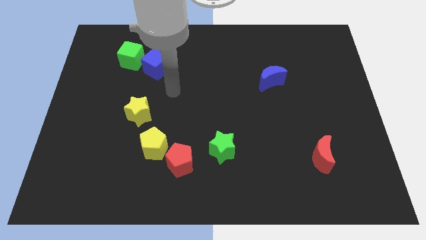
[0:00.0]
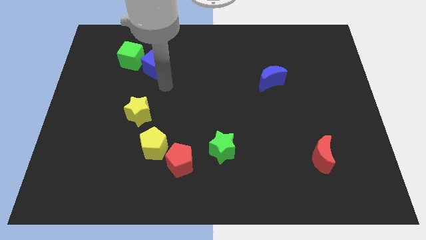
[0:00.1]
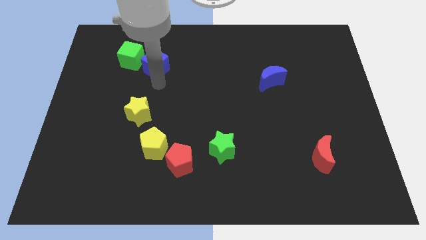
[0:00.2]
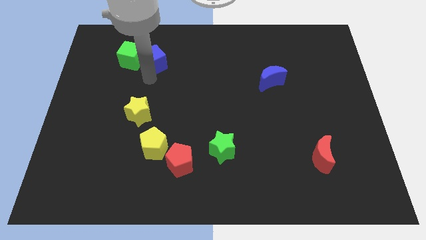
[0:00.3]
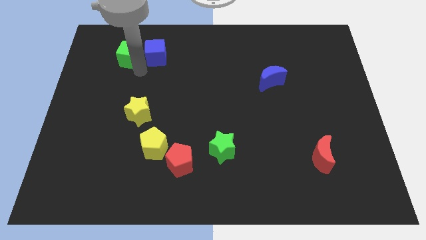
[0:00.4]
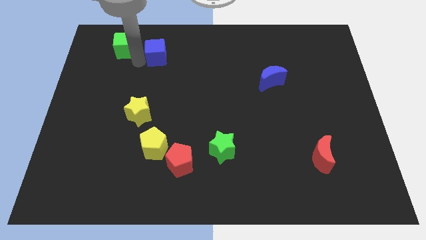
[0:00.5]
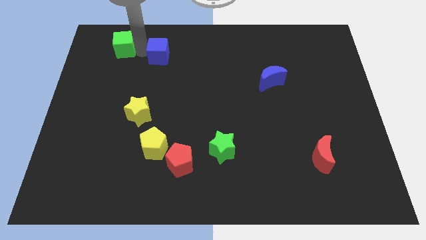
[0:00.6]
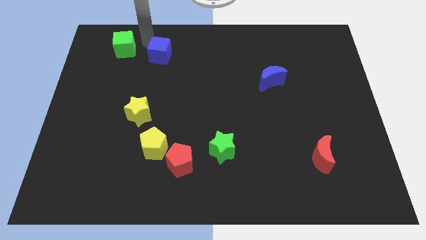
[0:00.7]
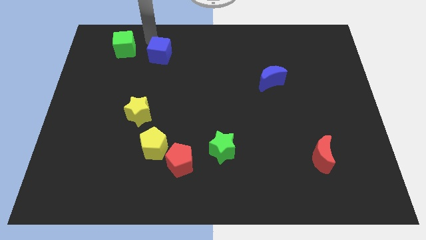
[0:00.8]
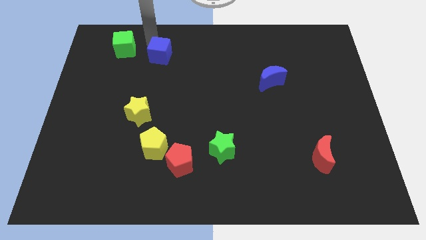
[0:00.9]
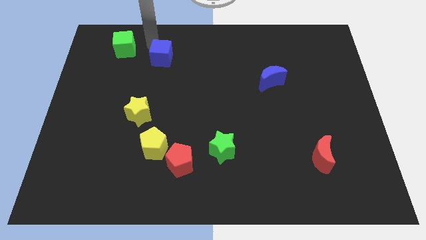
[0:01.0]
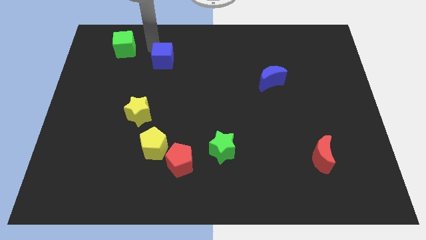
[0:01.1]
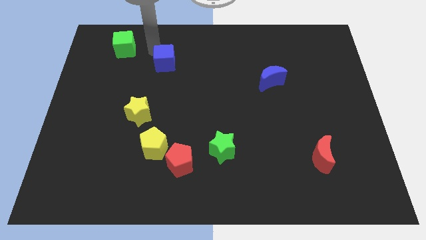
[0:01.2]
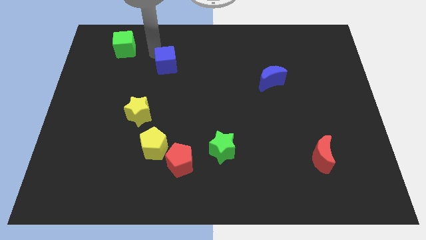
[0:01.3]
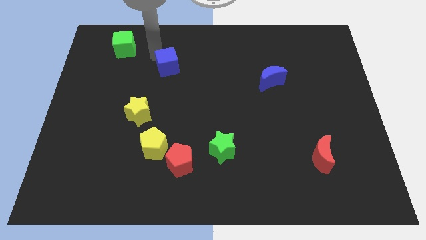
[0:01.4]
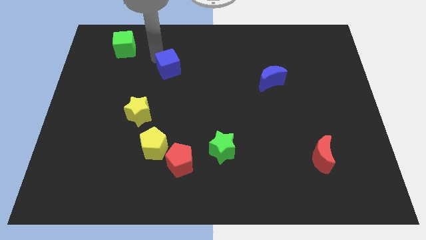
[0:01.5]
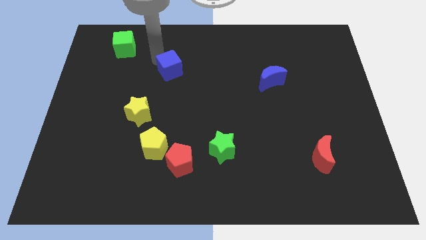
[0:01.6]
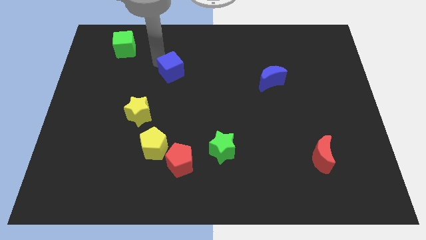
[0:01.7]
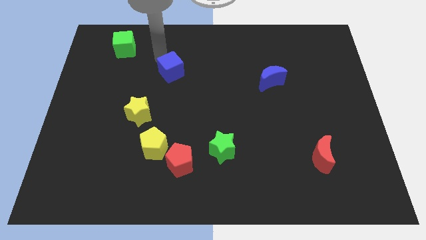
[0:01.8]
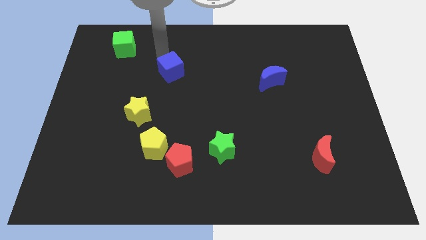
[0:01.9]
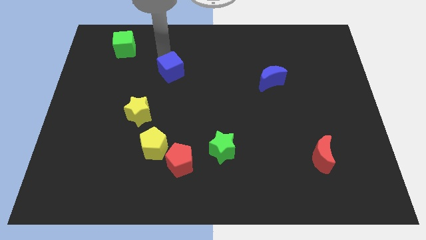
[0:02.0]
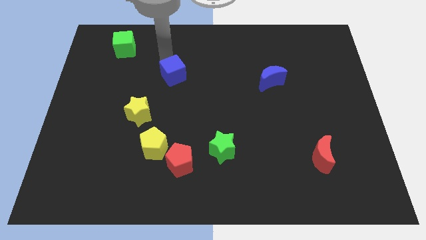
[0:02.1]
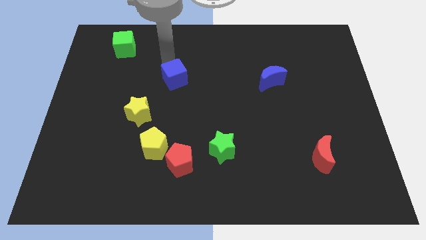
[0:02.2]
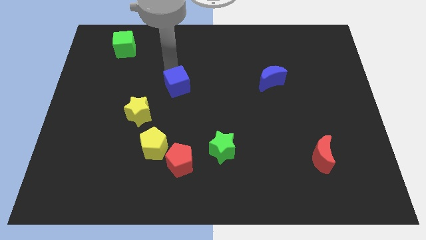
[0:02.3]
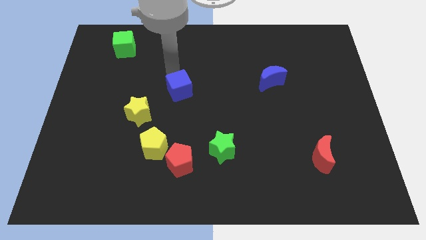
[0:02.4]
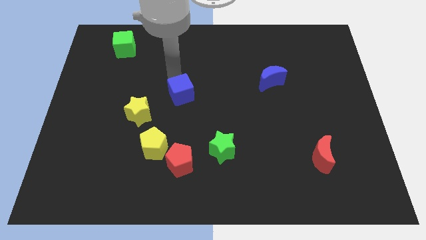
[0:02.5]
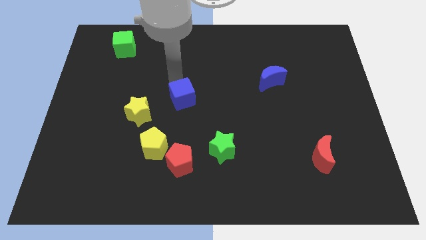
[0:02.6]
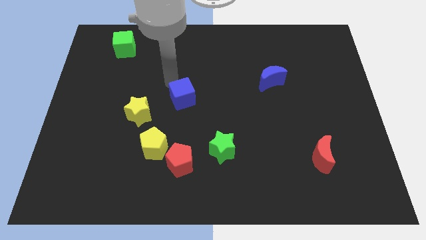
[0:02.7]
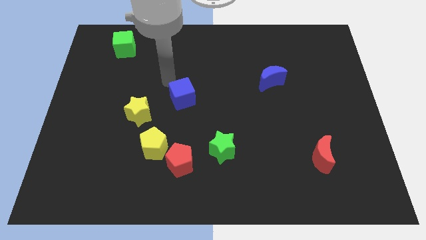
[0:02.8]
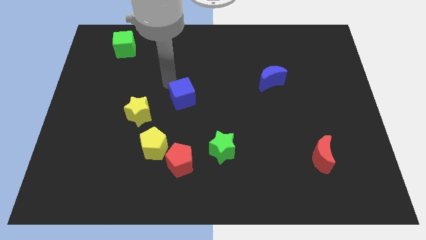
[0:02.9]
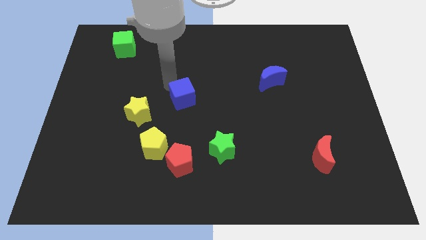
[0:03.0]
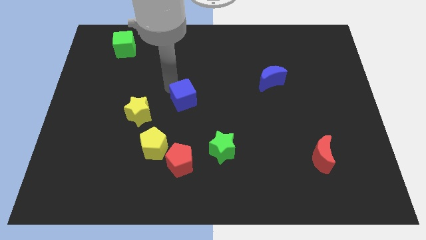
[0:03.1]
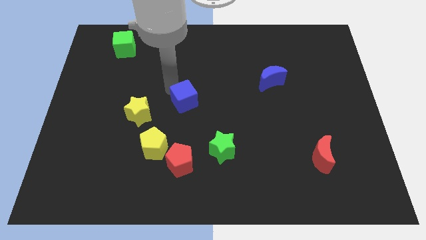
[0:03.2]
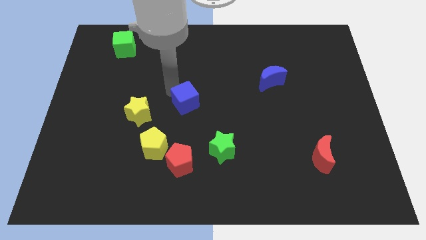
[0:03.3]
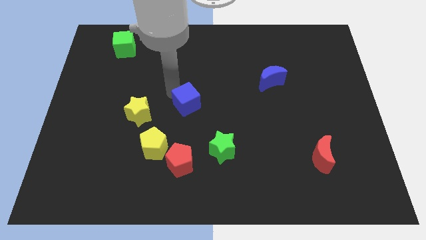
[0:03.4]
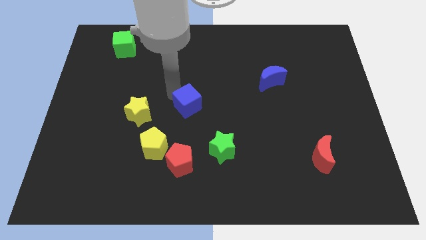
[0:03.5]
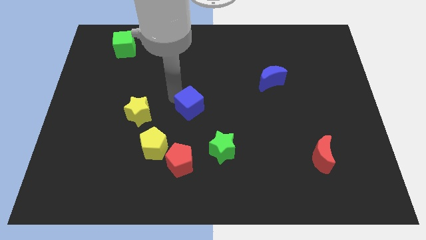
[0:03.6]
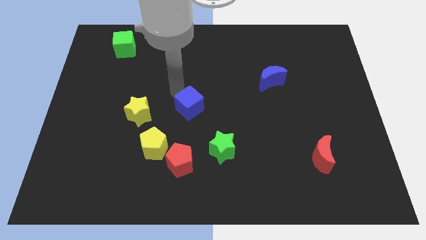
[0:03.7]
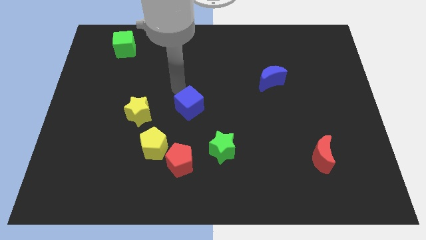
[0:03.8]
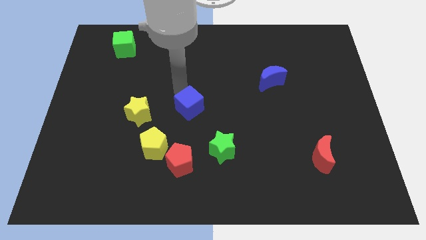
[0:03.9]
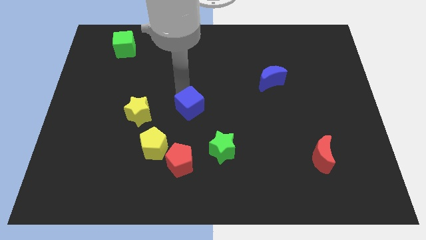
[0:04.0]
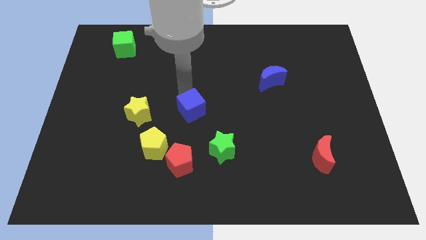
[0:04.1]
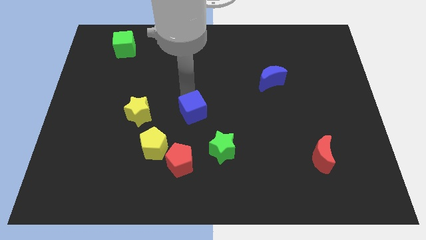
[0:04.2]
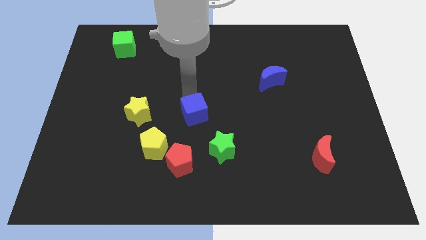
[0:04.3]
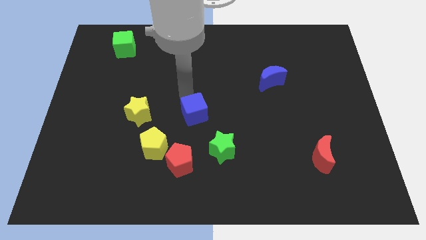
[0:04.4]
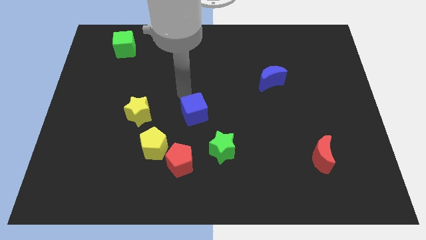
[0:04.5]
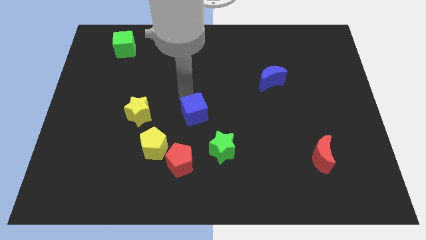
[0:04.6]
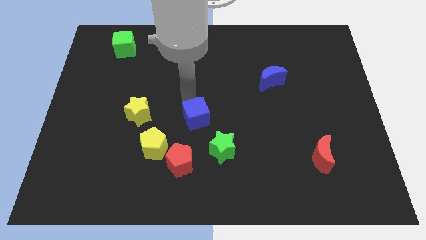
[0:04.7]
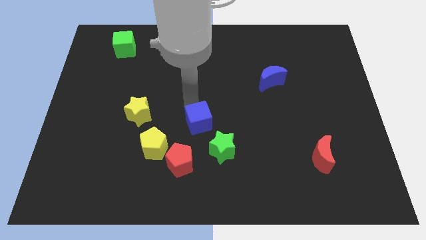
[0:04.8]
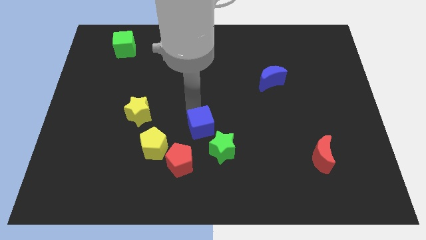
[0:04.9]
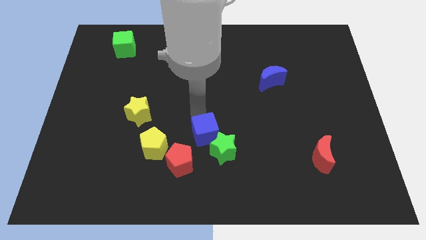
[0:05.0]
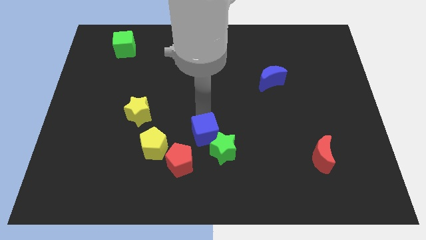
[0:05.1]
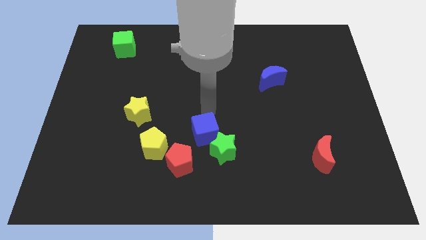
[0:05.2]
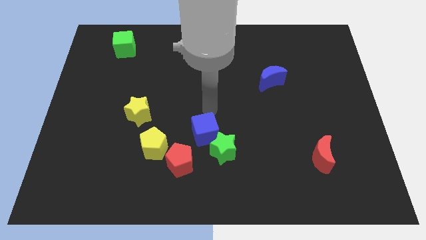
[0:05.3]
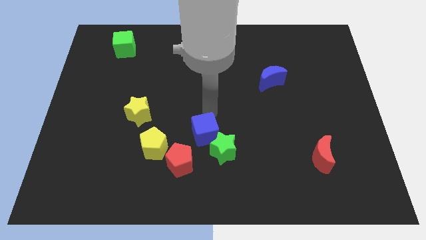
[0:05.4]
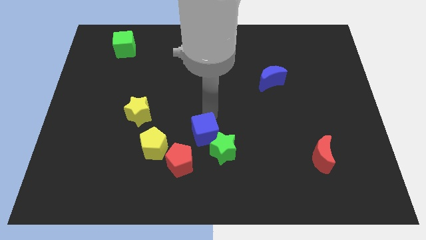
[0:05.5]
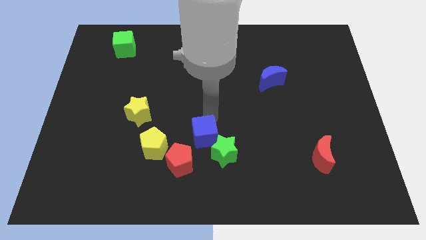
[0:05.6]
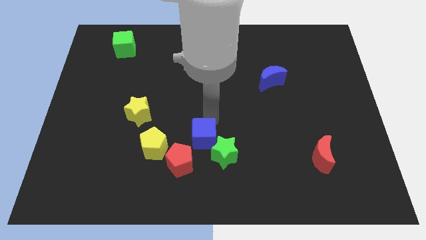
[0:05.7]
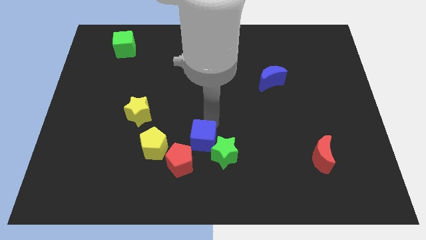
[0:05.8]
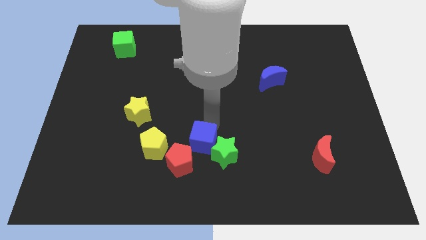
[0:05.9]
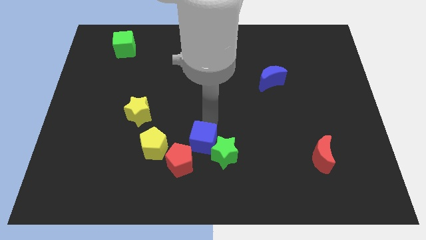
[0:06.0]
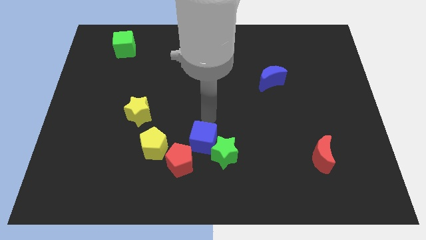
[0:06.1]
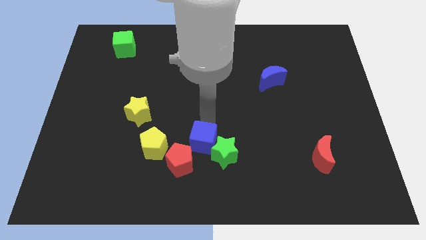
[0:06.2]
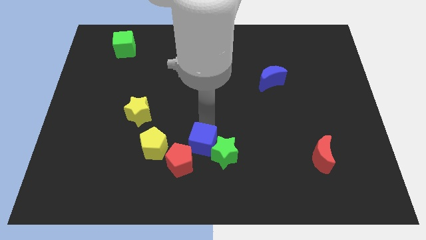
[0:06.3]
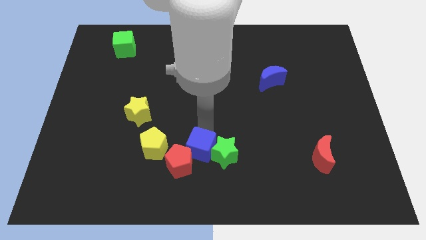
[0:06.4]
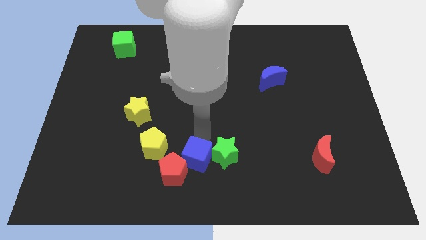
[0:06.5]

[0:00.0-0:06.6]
put the blue cube to the bottom

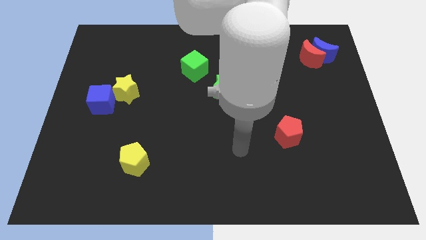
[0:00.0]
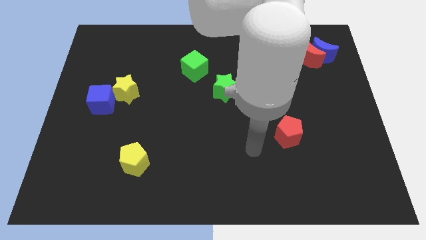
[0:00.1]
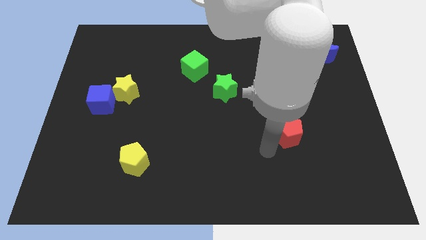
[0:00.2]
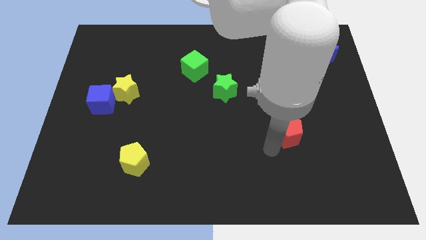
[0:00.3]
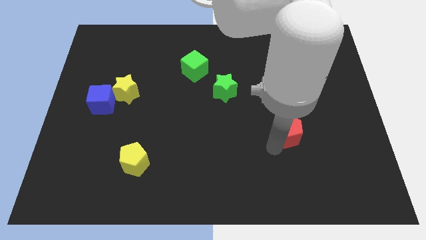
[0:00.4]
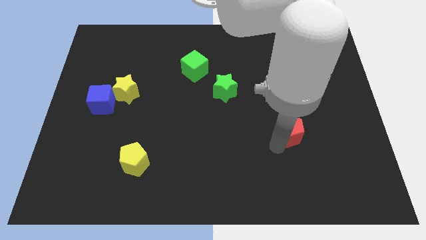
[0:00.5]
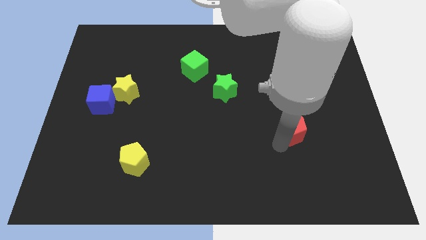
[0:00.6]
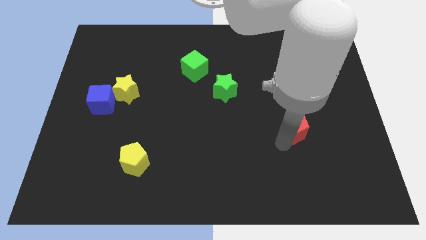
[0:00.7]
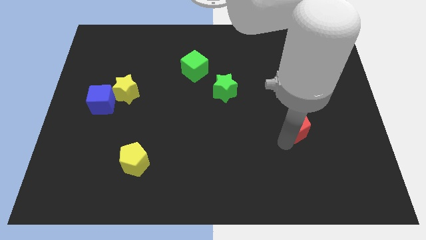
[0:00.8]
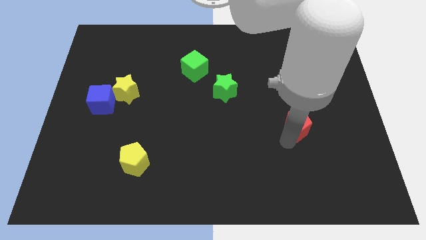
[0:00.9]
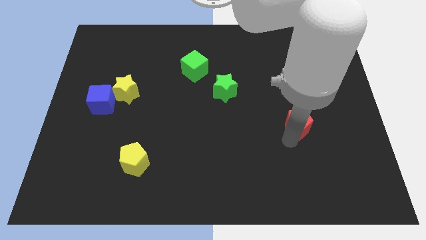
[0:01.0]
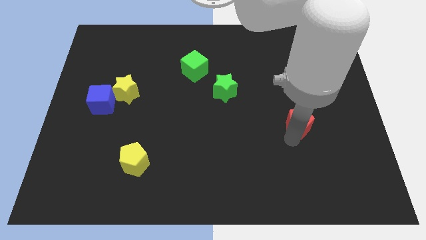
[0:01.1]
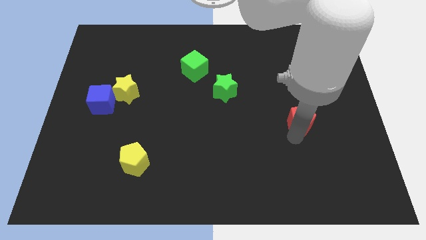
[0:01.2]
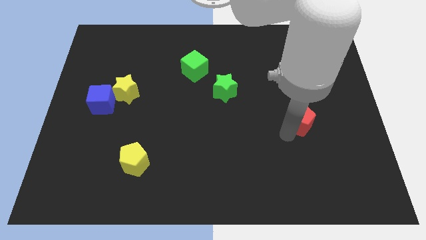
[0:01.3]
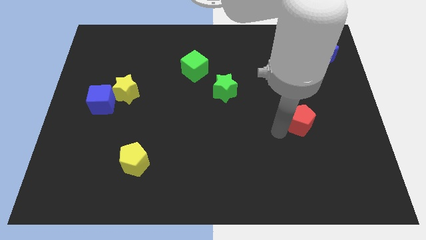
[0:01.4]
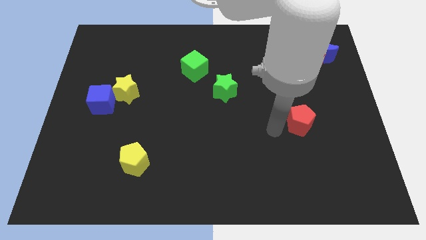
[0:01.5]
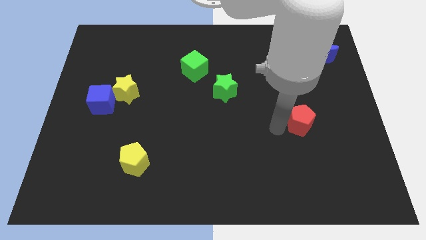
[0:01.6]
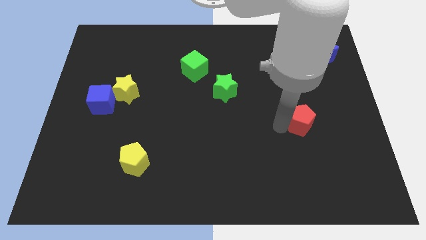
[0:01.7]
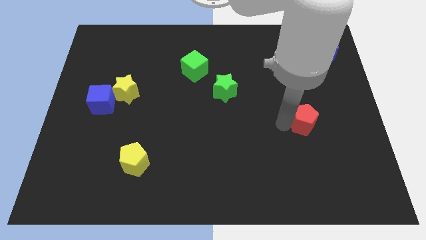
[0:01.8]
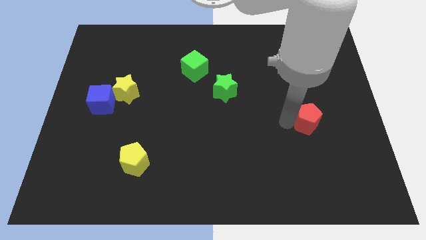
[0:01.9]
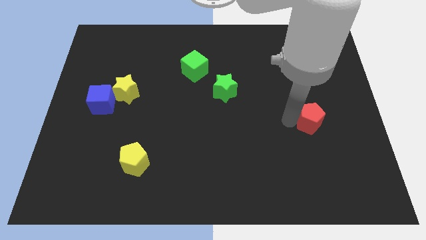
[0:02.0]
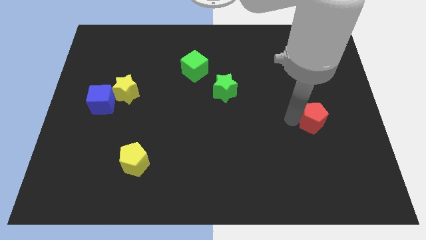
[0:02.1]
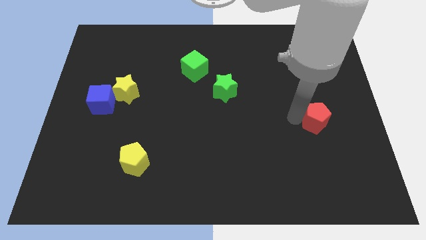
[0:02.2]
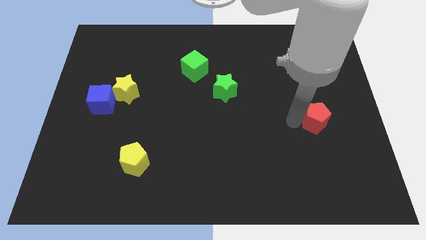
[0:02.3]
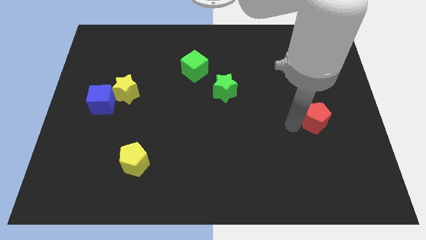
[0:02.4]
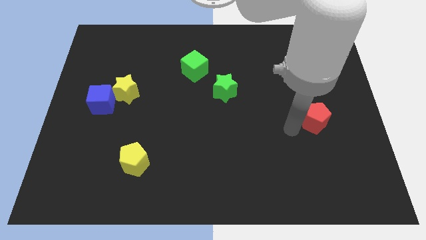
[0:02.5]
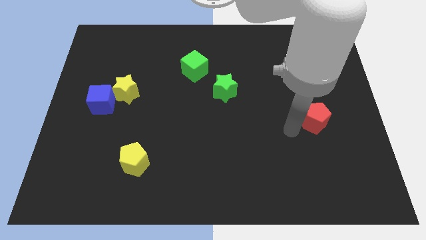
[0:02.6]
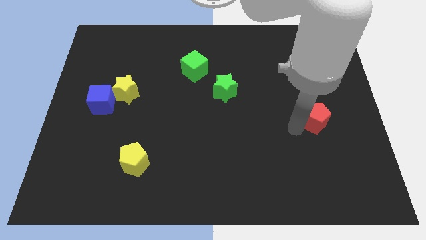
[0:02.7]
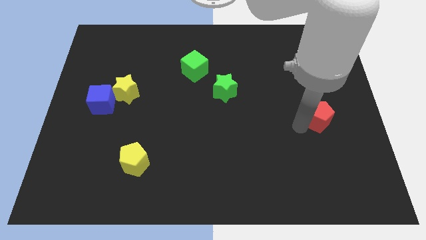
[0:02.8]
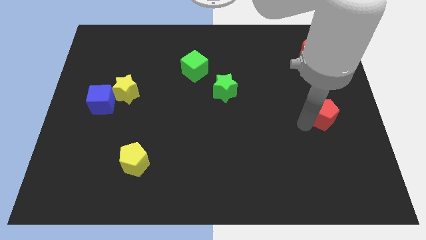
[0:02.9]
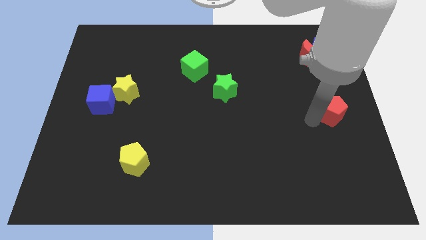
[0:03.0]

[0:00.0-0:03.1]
slide the red pentagon to the right side
